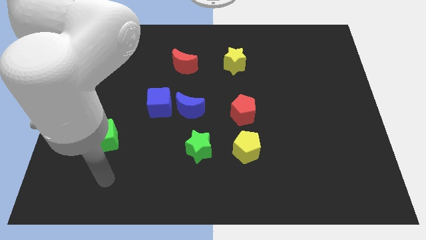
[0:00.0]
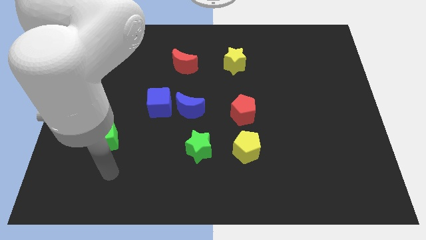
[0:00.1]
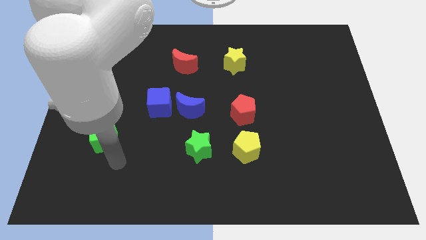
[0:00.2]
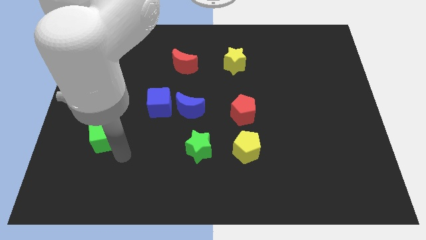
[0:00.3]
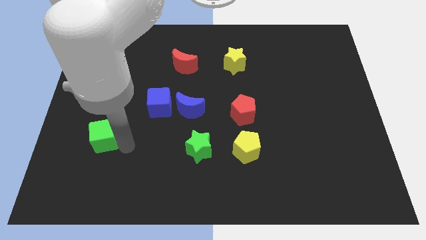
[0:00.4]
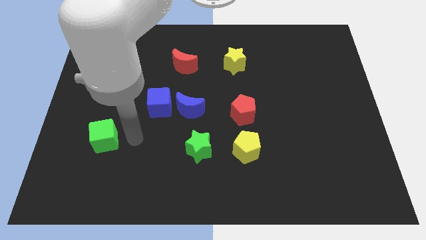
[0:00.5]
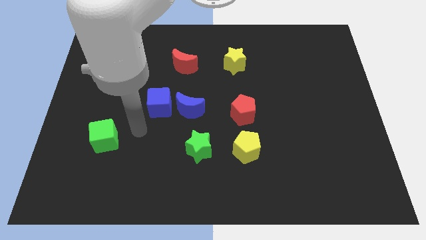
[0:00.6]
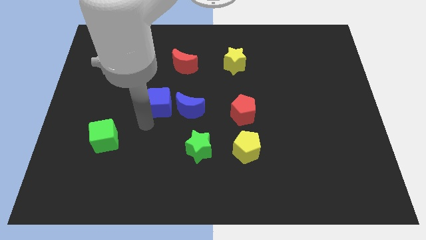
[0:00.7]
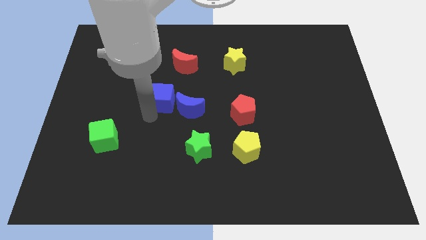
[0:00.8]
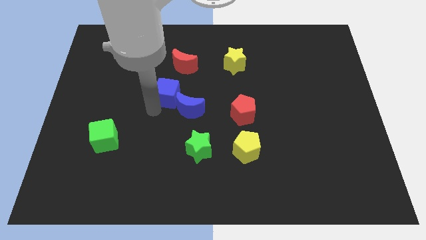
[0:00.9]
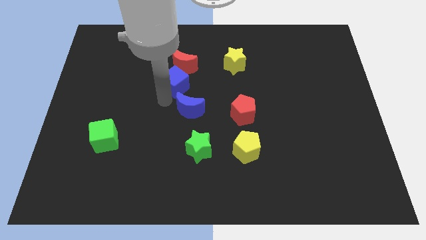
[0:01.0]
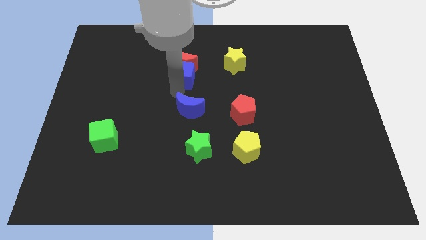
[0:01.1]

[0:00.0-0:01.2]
move the blue moon away from the blue cube

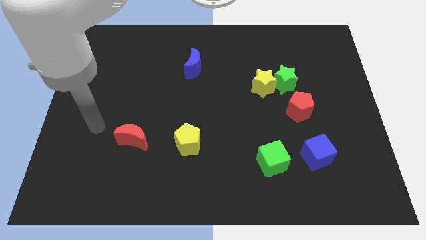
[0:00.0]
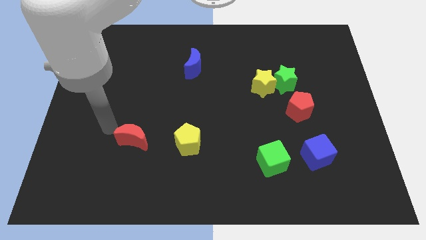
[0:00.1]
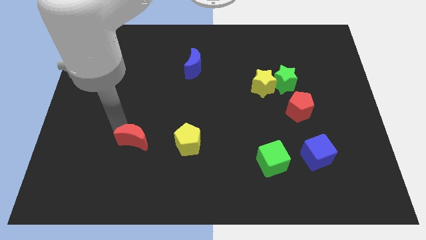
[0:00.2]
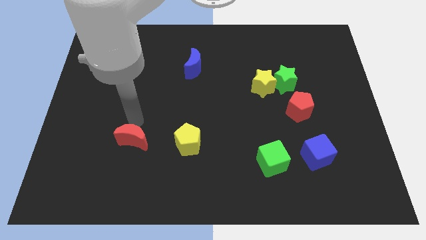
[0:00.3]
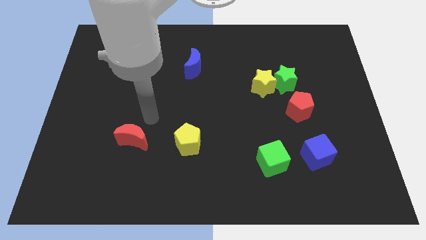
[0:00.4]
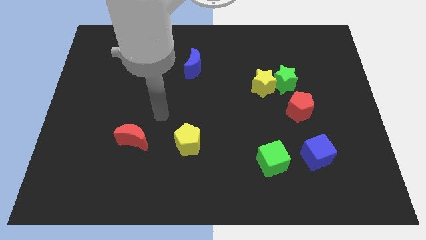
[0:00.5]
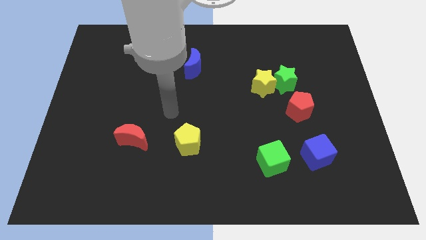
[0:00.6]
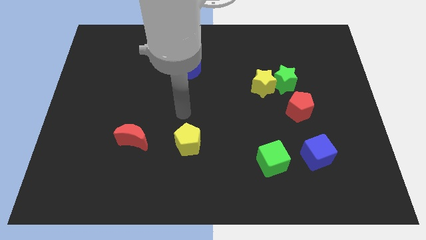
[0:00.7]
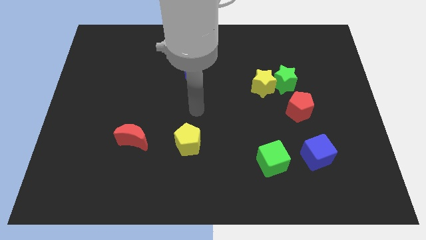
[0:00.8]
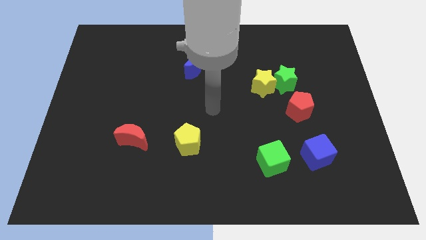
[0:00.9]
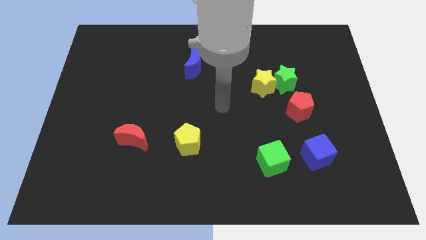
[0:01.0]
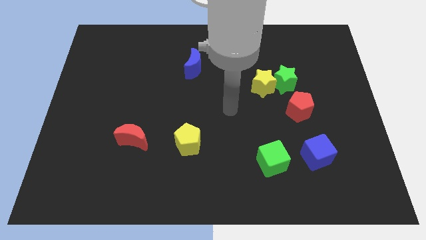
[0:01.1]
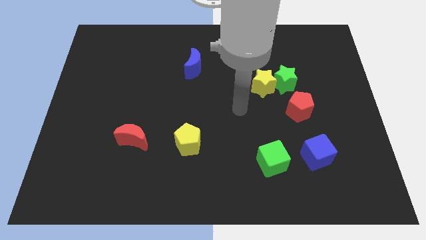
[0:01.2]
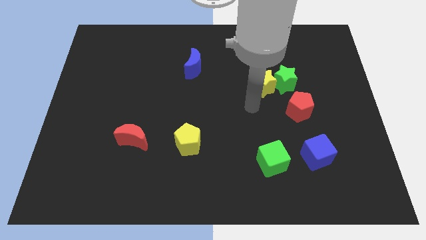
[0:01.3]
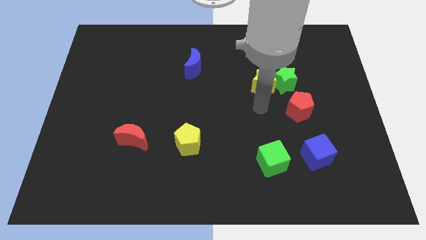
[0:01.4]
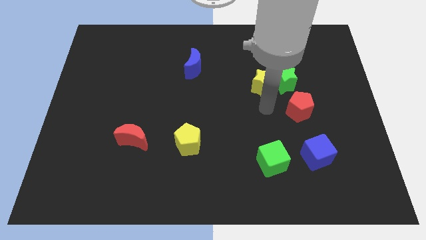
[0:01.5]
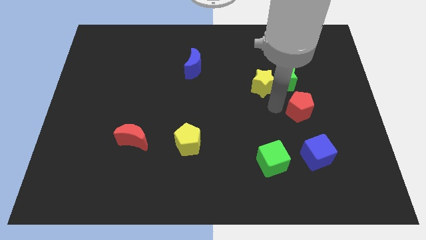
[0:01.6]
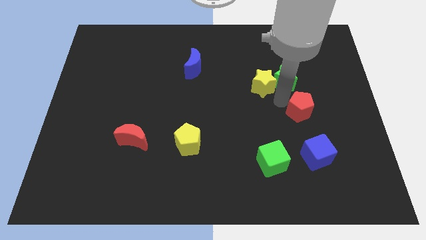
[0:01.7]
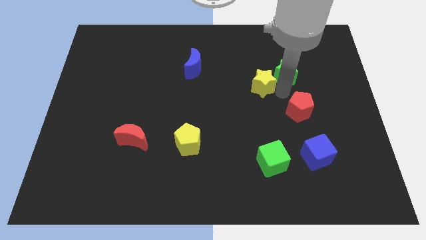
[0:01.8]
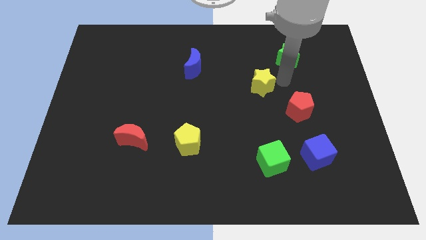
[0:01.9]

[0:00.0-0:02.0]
pull the yellow star apart from the green star

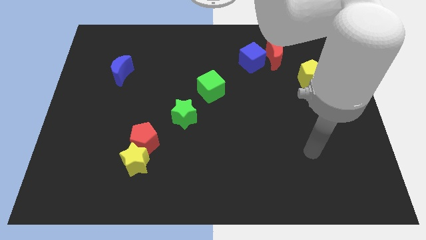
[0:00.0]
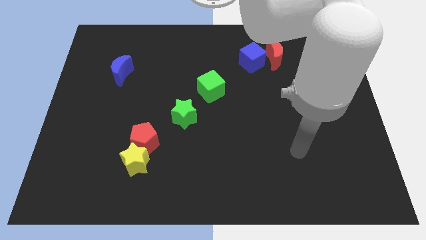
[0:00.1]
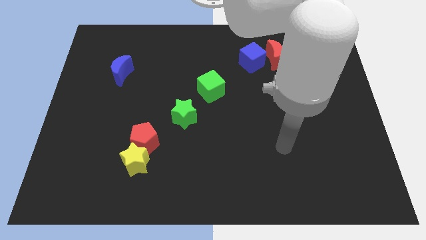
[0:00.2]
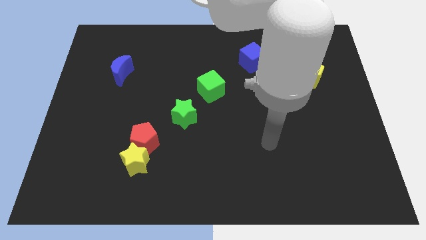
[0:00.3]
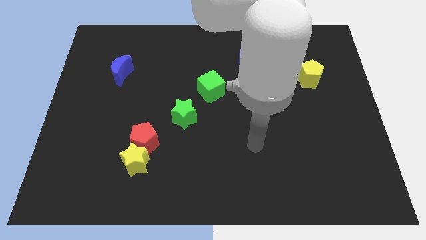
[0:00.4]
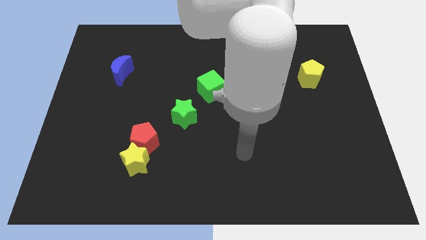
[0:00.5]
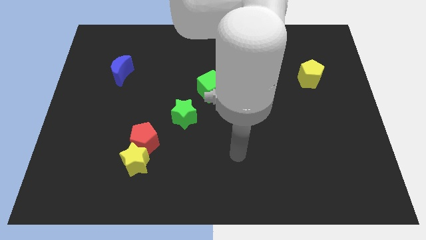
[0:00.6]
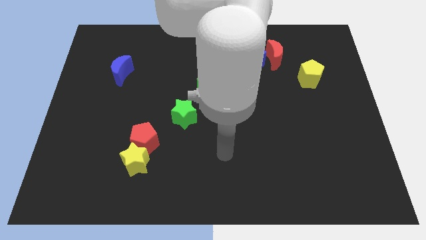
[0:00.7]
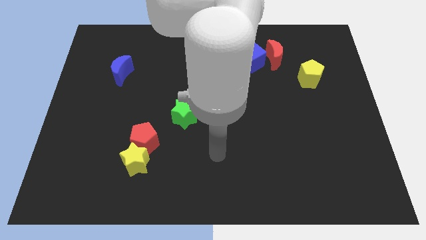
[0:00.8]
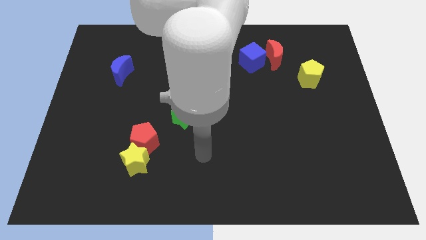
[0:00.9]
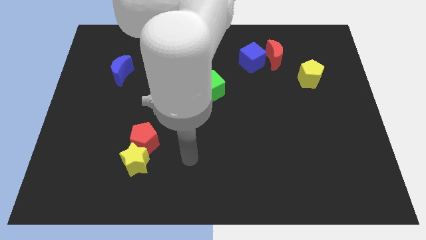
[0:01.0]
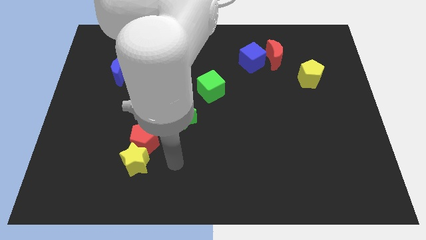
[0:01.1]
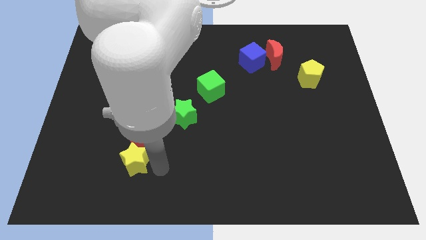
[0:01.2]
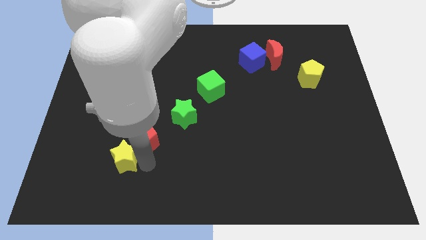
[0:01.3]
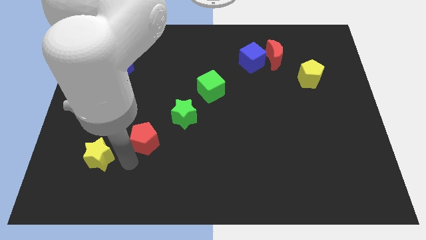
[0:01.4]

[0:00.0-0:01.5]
pull the red pentagon apart from the yellow star

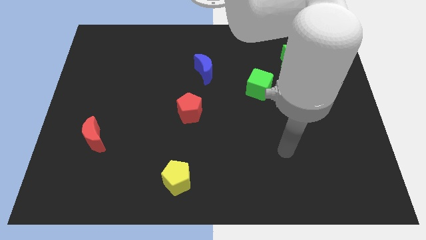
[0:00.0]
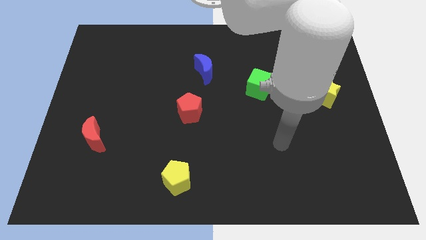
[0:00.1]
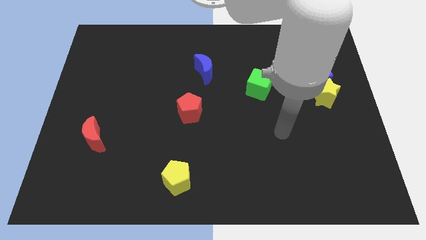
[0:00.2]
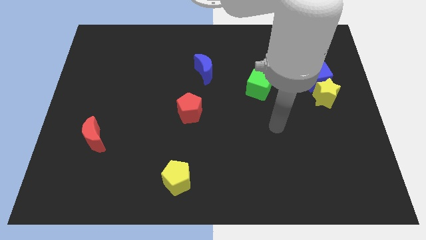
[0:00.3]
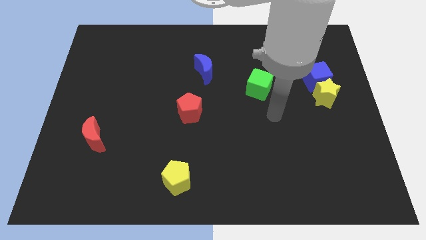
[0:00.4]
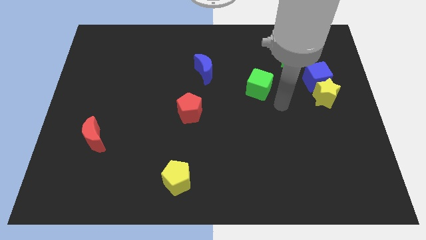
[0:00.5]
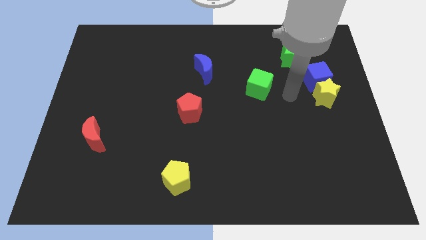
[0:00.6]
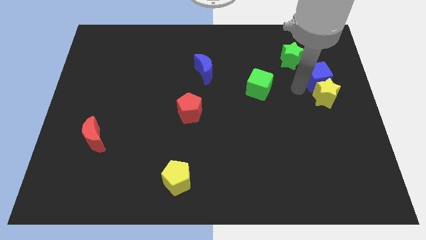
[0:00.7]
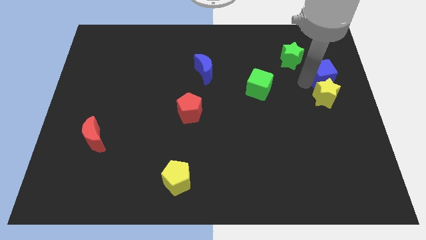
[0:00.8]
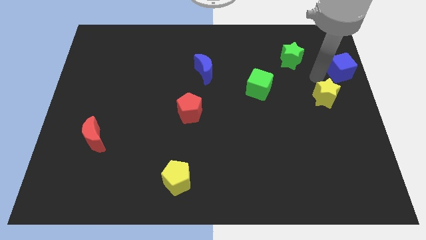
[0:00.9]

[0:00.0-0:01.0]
pull the yellow star apart from the blue cube

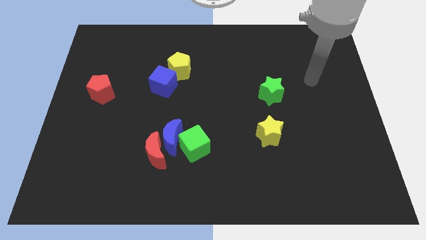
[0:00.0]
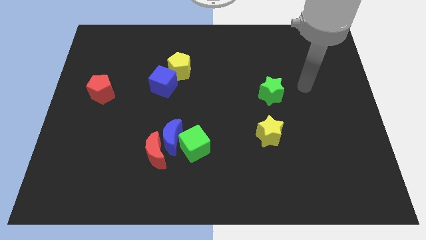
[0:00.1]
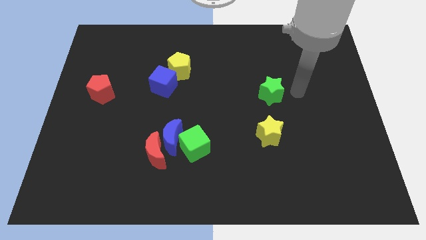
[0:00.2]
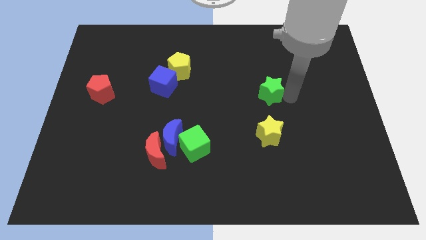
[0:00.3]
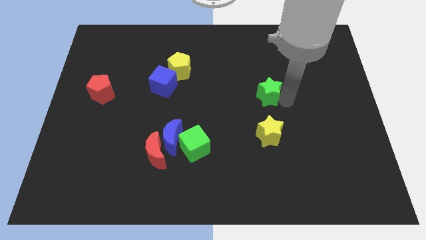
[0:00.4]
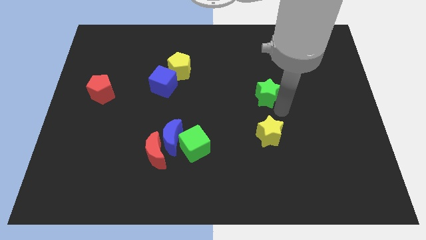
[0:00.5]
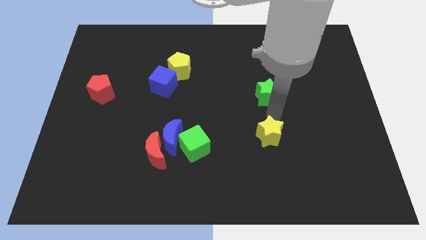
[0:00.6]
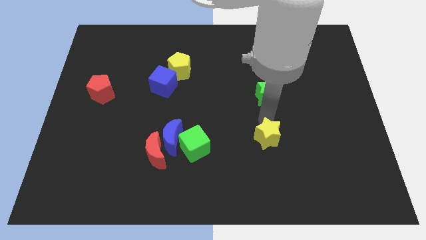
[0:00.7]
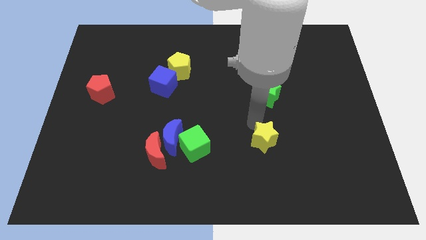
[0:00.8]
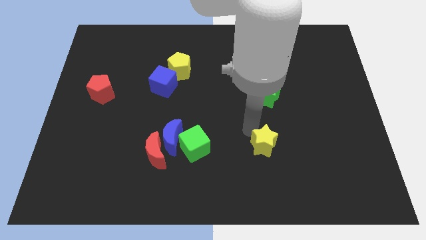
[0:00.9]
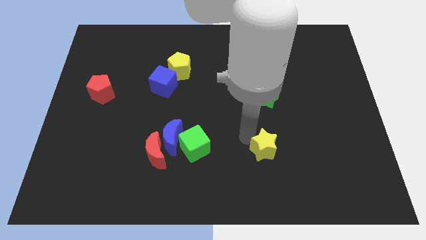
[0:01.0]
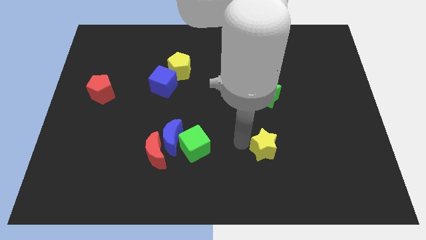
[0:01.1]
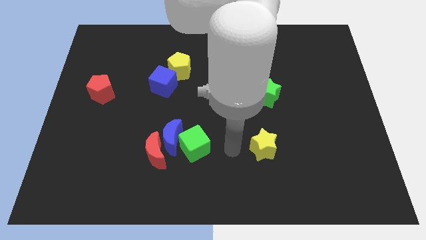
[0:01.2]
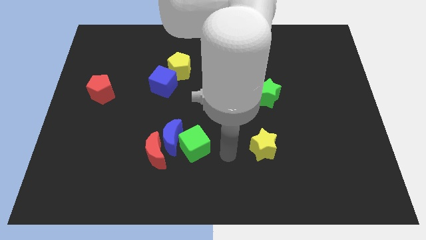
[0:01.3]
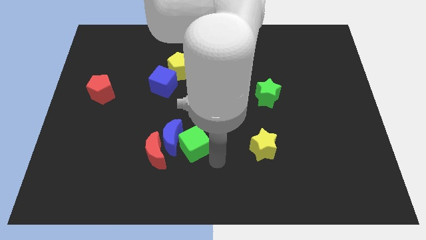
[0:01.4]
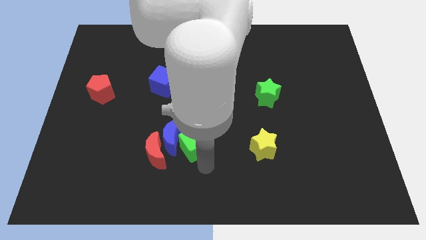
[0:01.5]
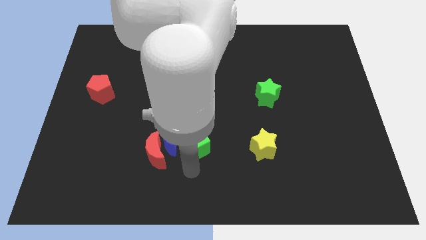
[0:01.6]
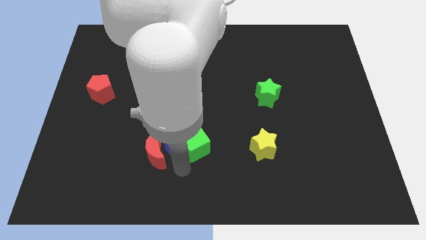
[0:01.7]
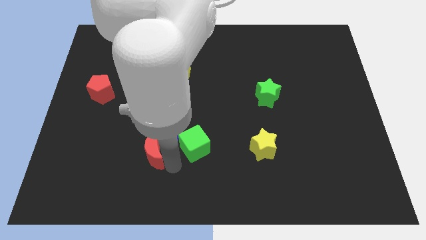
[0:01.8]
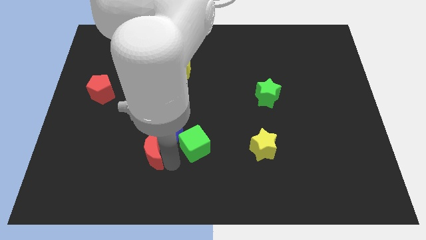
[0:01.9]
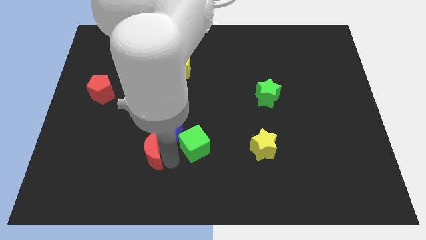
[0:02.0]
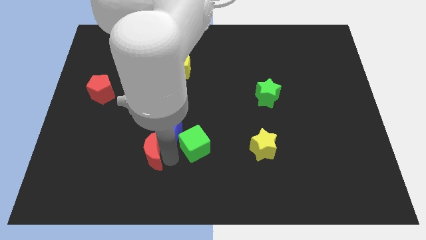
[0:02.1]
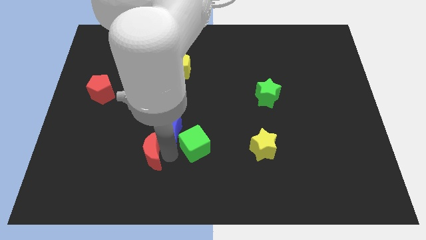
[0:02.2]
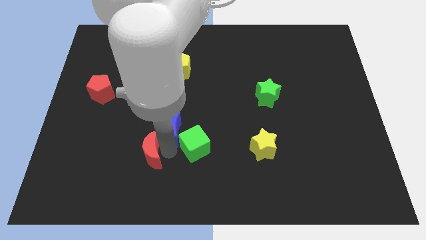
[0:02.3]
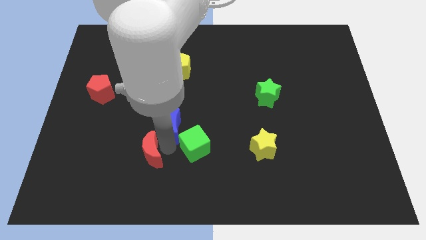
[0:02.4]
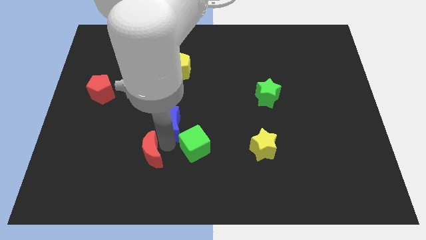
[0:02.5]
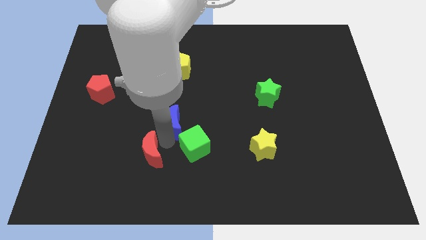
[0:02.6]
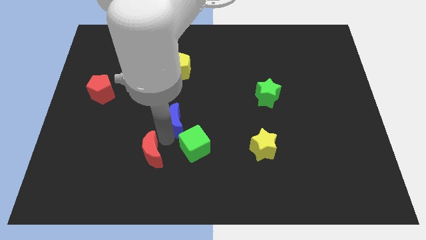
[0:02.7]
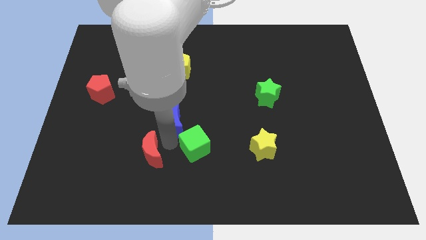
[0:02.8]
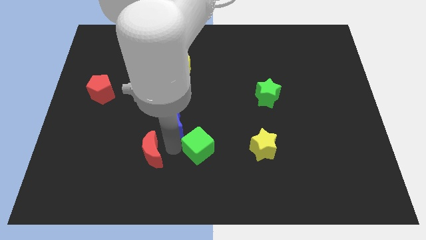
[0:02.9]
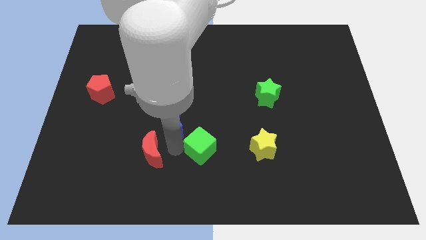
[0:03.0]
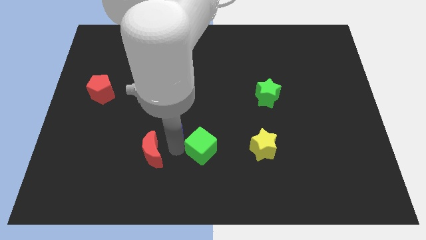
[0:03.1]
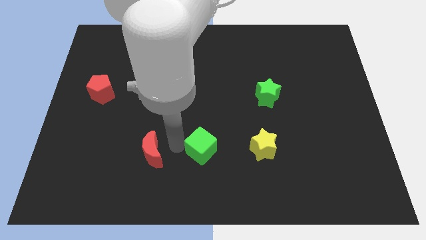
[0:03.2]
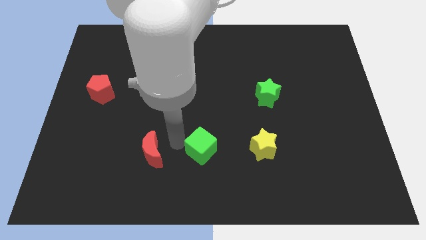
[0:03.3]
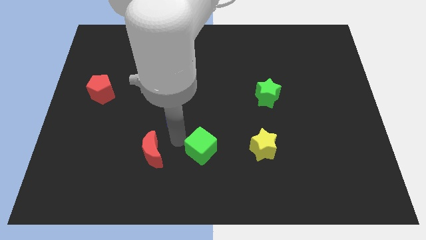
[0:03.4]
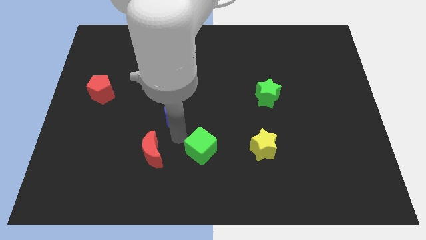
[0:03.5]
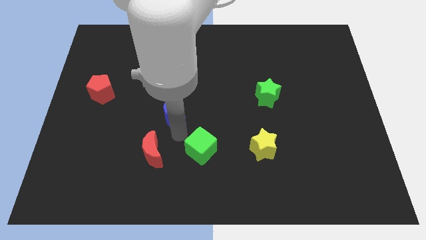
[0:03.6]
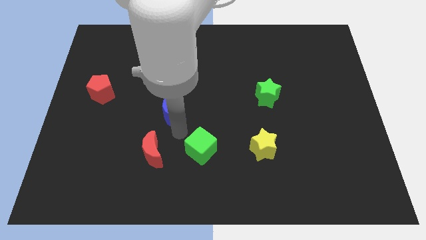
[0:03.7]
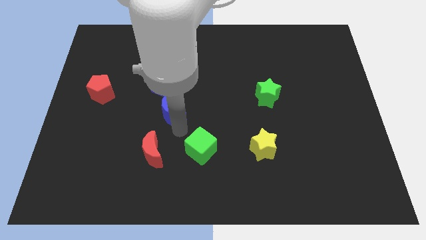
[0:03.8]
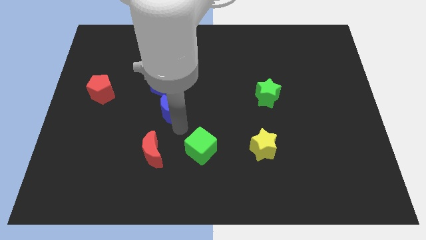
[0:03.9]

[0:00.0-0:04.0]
separate the blue moon from the red moon and green cube
